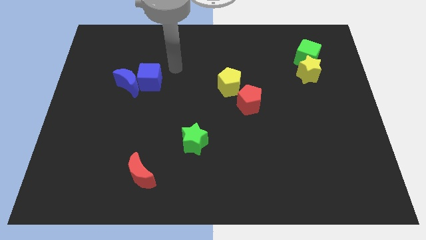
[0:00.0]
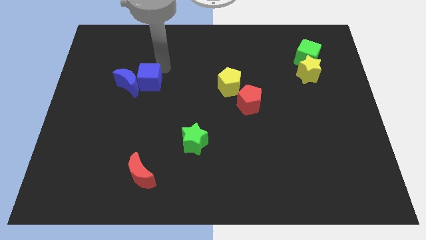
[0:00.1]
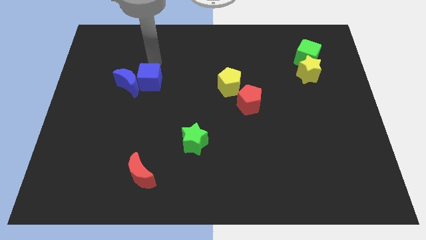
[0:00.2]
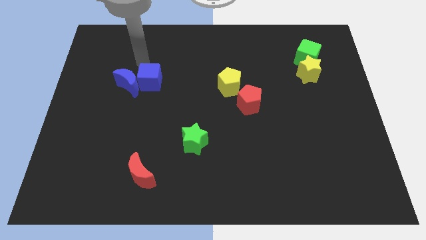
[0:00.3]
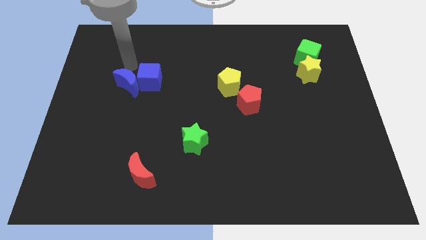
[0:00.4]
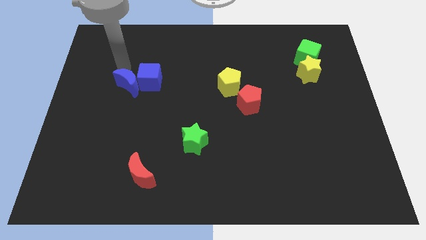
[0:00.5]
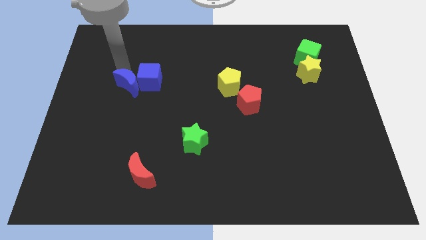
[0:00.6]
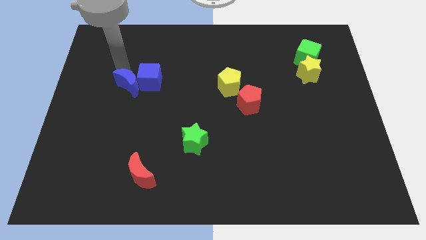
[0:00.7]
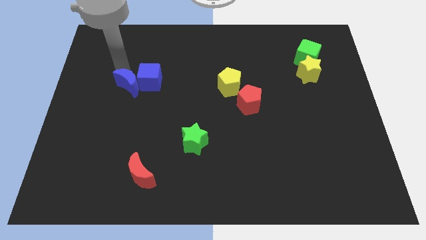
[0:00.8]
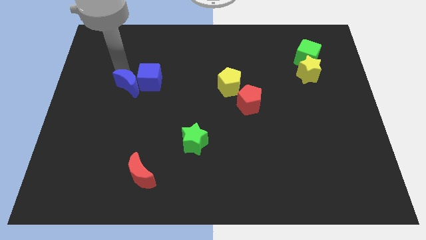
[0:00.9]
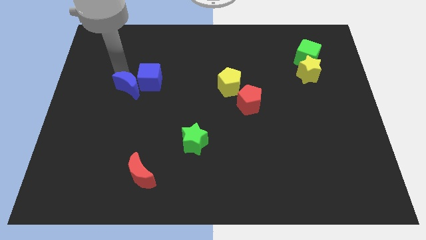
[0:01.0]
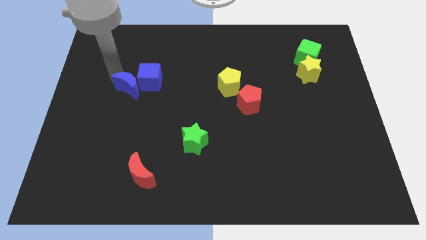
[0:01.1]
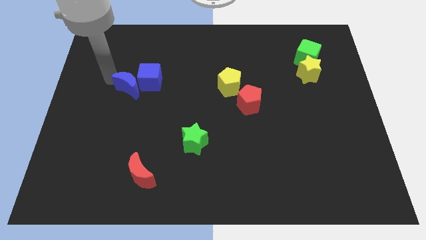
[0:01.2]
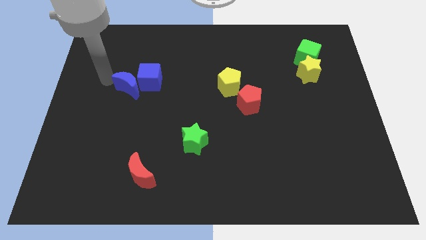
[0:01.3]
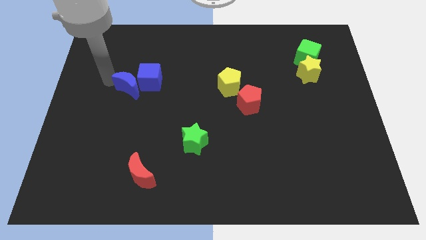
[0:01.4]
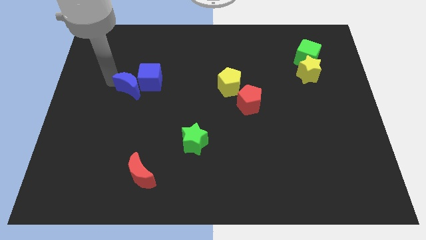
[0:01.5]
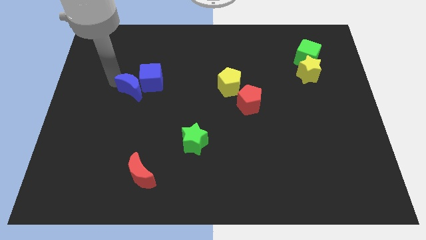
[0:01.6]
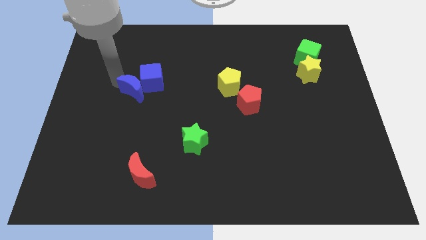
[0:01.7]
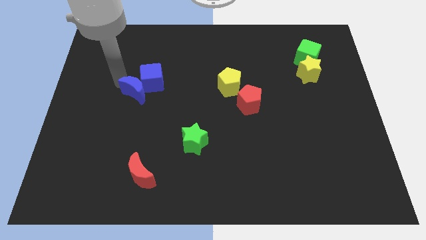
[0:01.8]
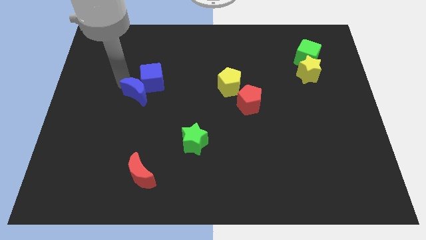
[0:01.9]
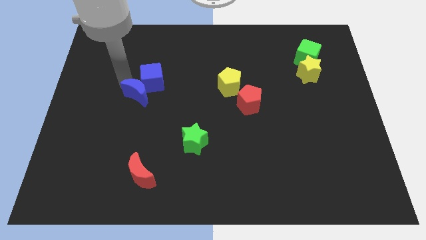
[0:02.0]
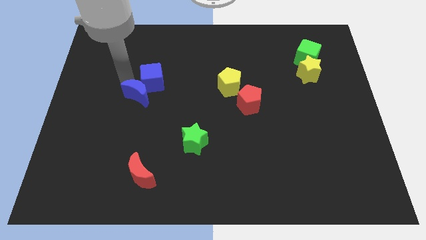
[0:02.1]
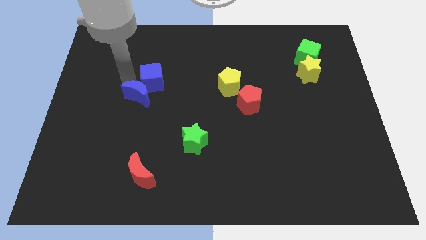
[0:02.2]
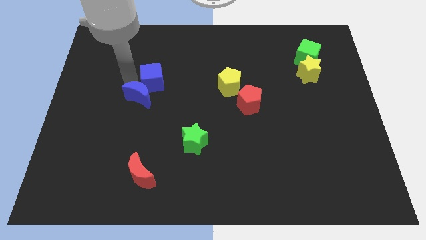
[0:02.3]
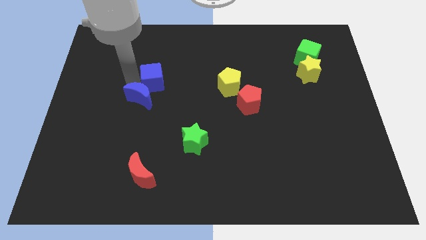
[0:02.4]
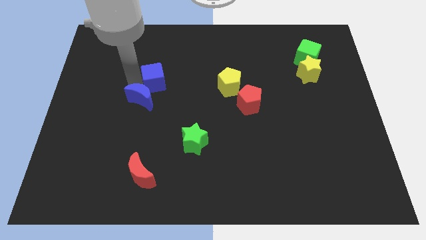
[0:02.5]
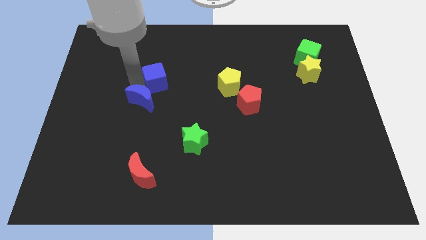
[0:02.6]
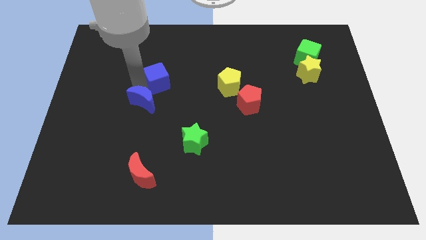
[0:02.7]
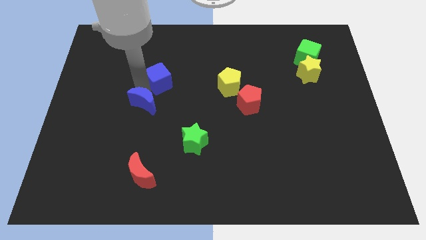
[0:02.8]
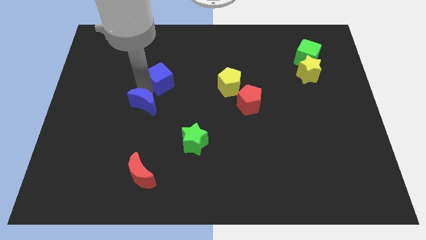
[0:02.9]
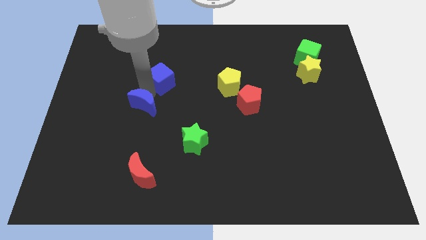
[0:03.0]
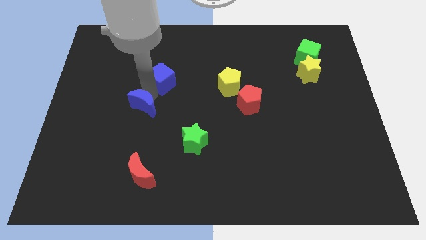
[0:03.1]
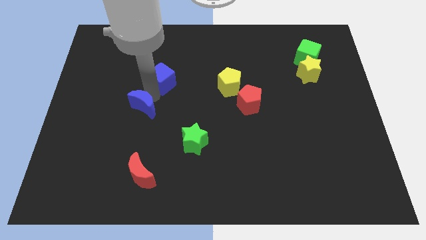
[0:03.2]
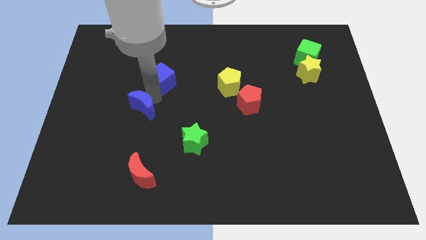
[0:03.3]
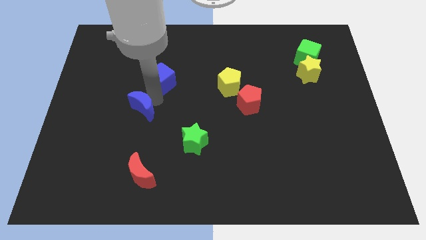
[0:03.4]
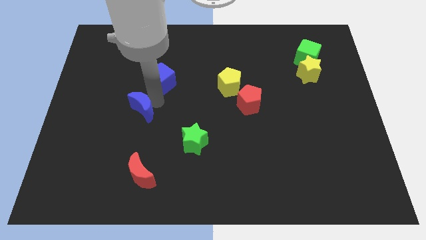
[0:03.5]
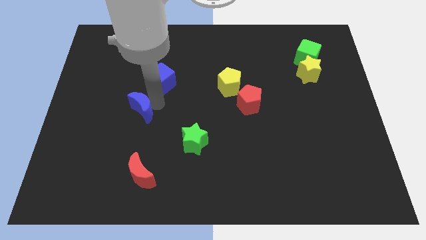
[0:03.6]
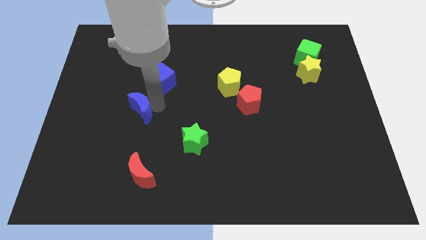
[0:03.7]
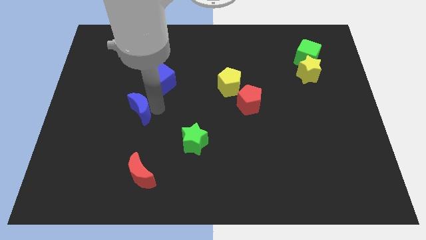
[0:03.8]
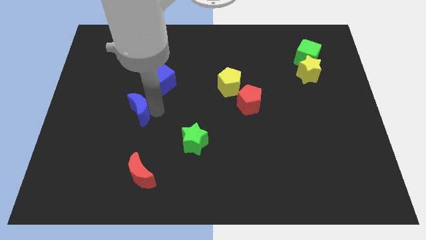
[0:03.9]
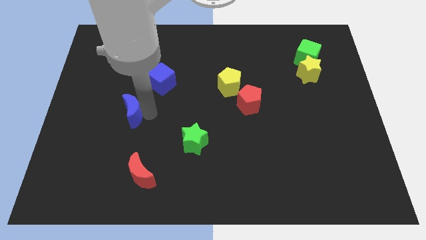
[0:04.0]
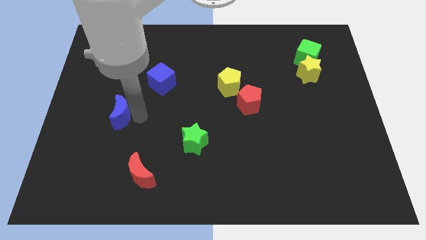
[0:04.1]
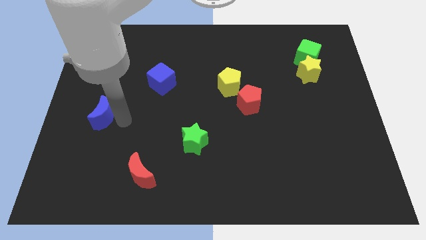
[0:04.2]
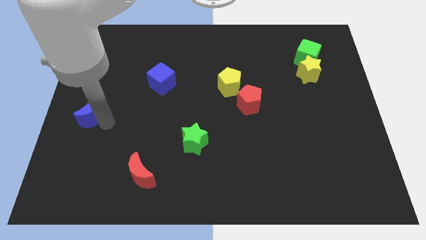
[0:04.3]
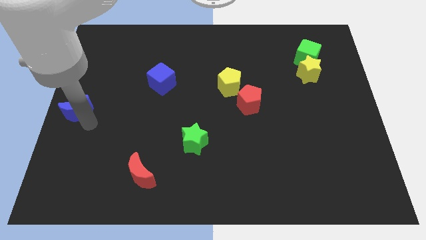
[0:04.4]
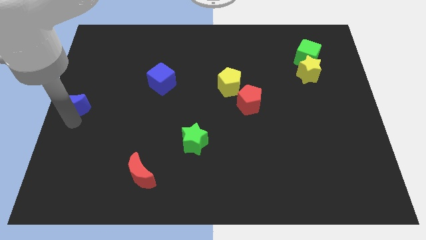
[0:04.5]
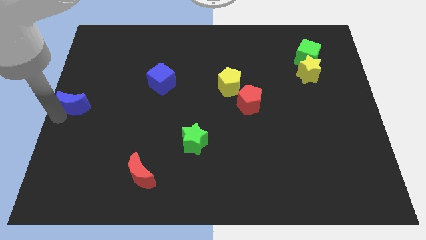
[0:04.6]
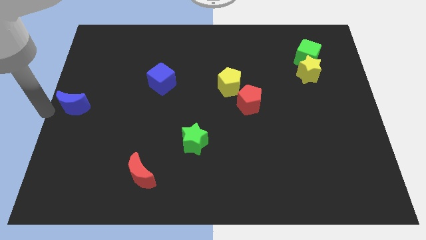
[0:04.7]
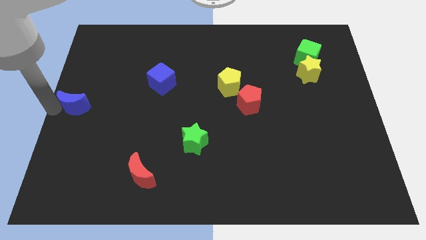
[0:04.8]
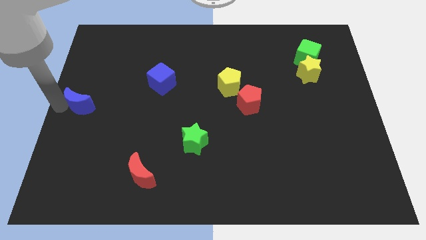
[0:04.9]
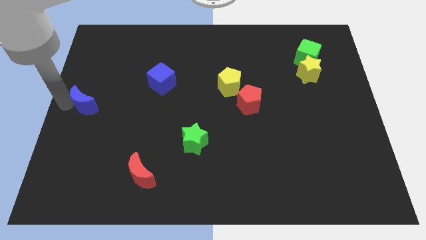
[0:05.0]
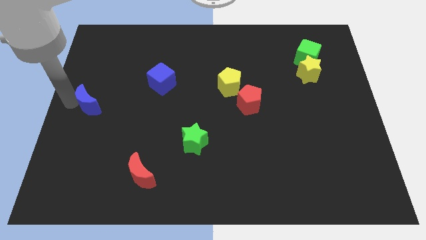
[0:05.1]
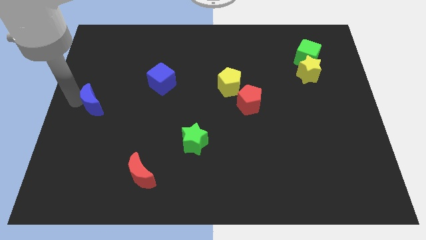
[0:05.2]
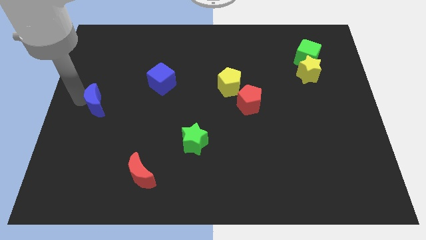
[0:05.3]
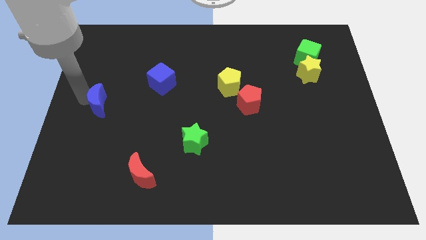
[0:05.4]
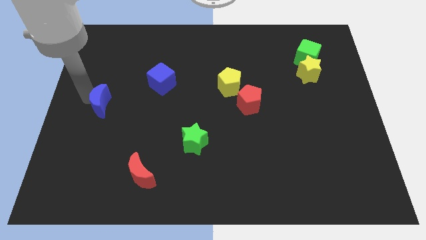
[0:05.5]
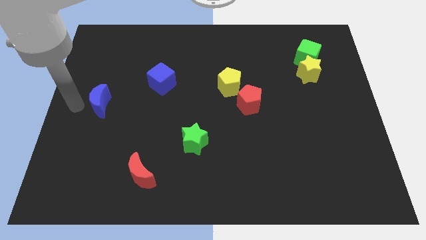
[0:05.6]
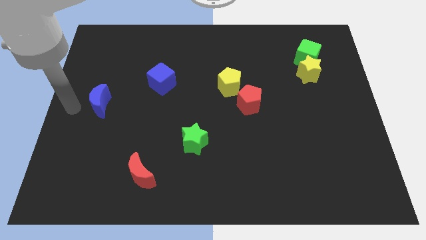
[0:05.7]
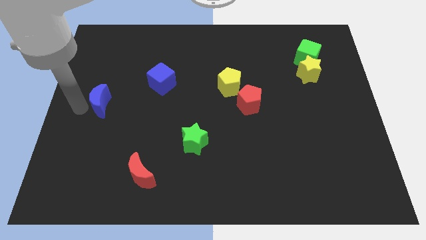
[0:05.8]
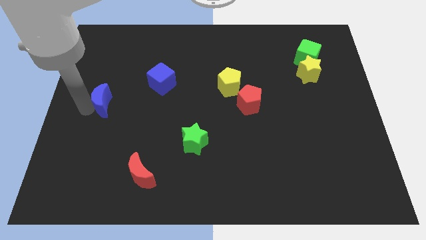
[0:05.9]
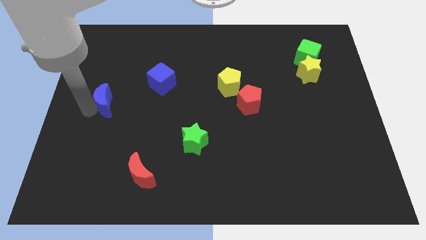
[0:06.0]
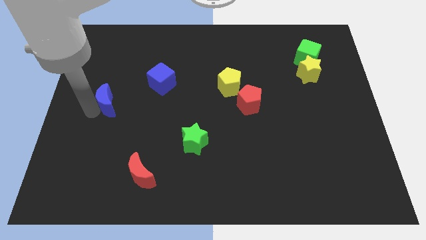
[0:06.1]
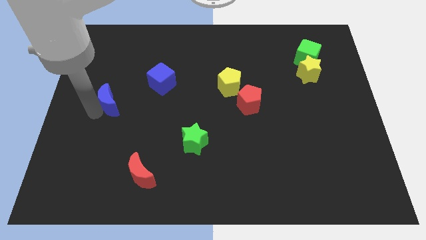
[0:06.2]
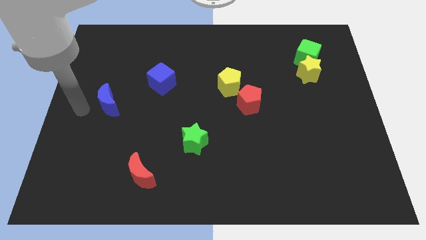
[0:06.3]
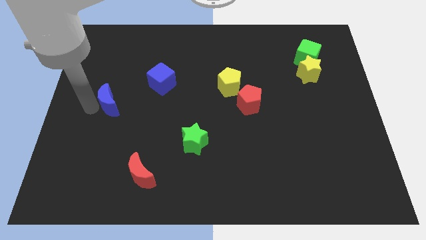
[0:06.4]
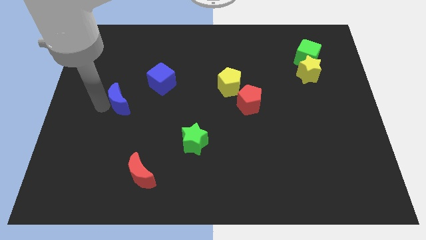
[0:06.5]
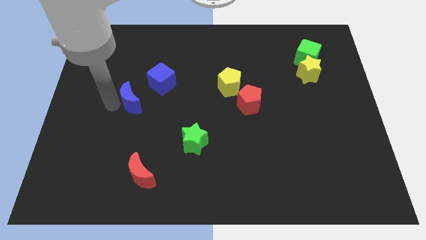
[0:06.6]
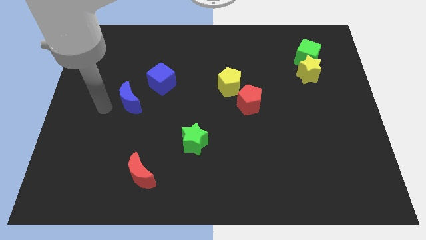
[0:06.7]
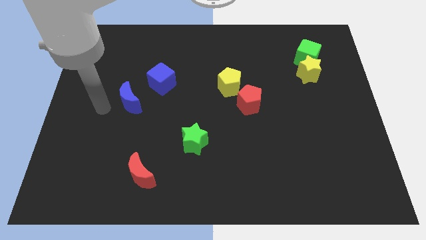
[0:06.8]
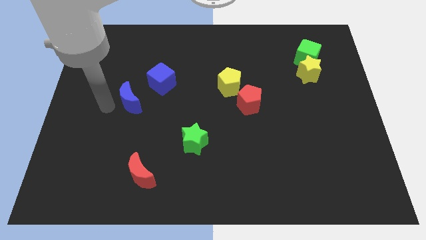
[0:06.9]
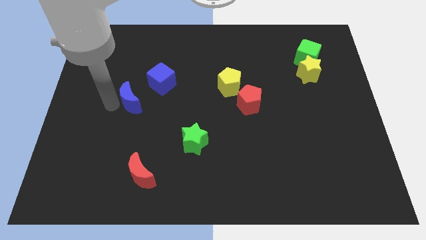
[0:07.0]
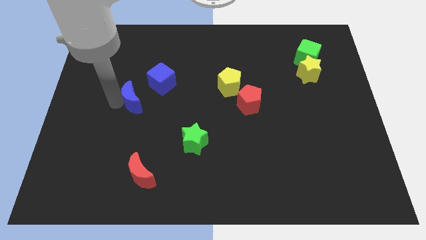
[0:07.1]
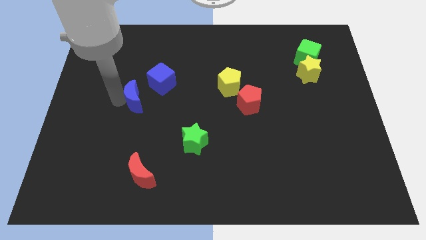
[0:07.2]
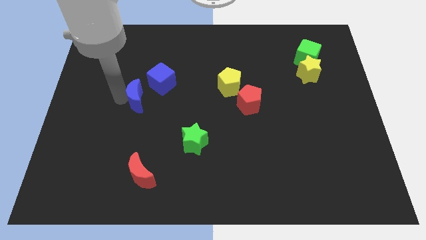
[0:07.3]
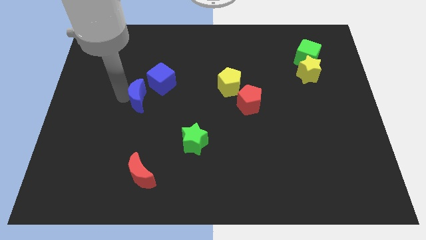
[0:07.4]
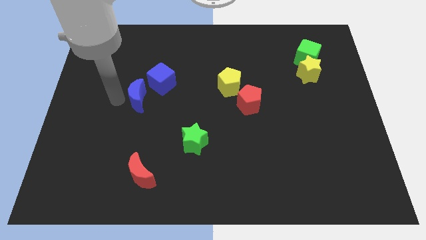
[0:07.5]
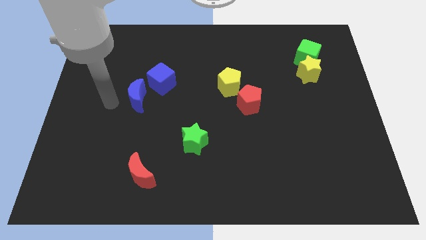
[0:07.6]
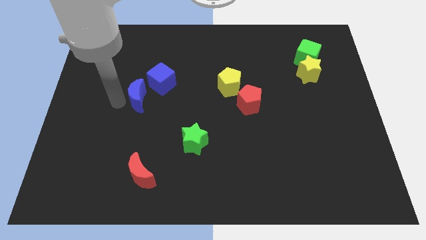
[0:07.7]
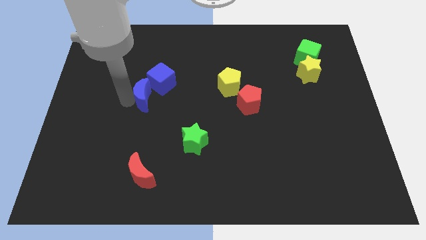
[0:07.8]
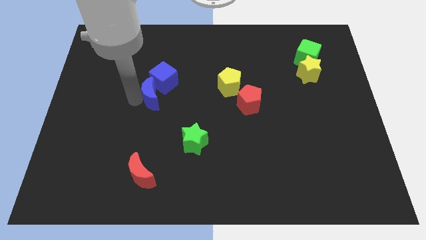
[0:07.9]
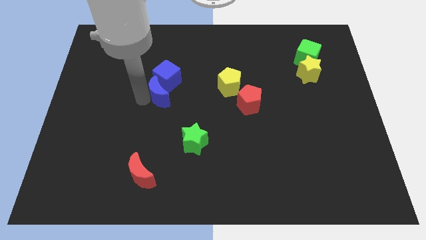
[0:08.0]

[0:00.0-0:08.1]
slightly slide the blue moon right
